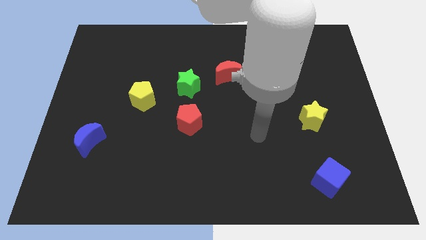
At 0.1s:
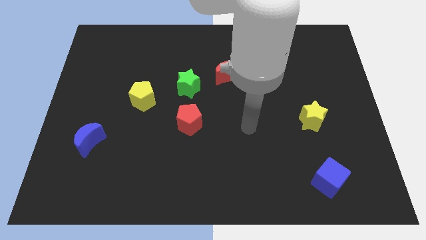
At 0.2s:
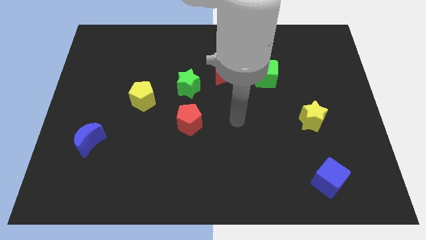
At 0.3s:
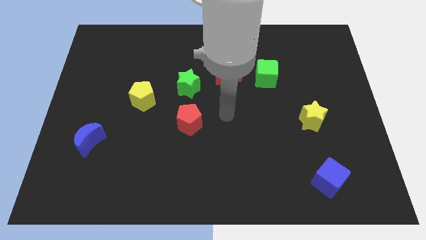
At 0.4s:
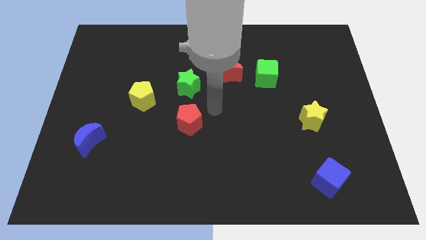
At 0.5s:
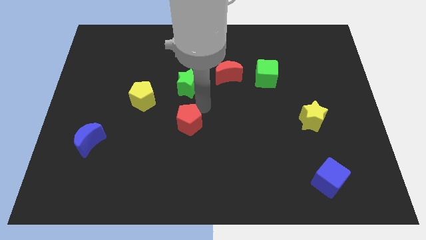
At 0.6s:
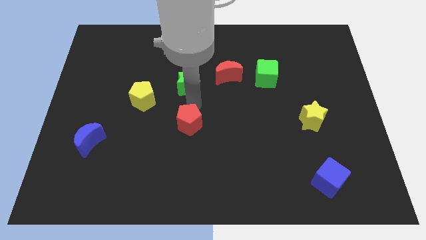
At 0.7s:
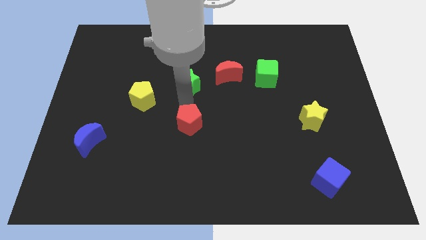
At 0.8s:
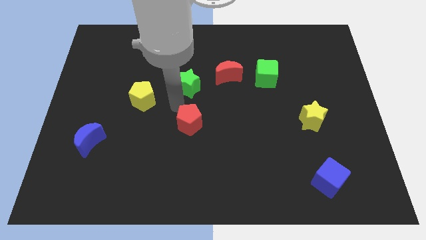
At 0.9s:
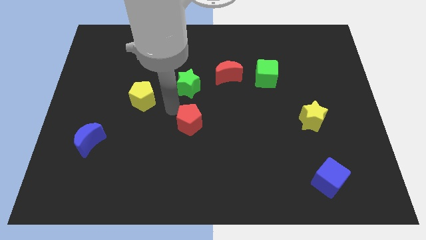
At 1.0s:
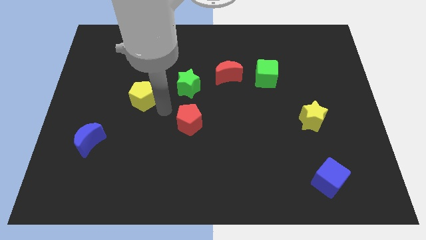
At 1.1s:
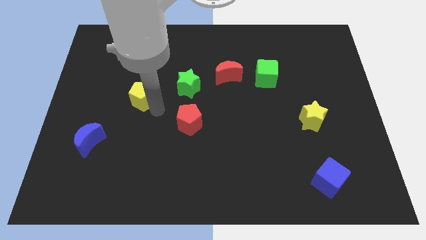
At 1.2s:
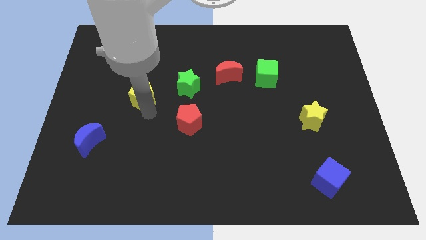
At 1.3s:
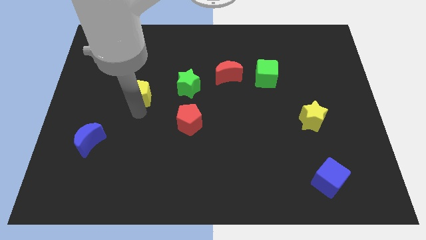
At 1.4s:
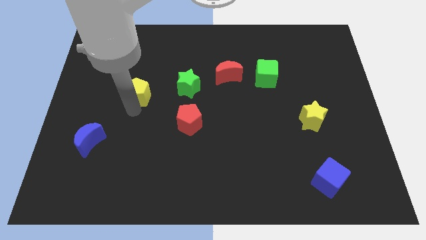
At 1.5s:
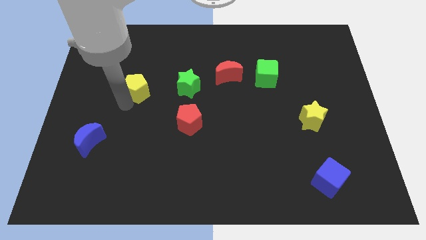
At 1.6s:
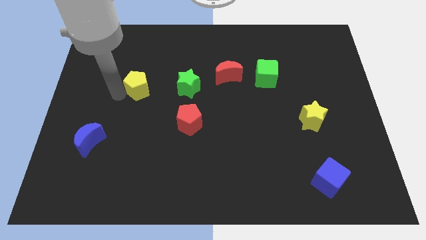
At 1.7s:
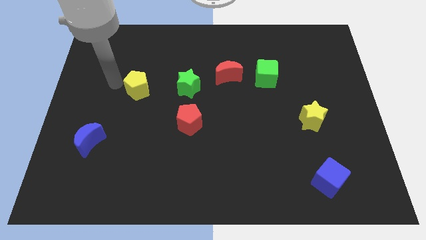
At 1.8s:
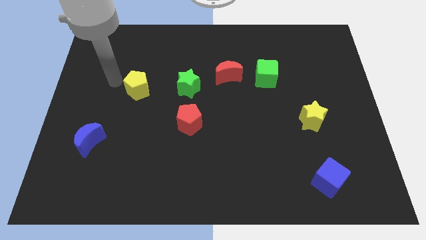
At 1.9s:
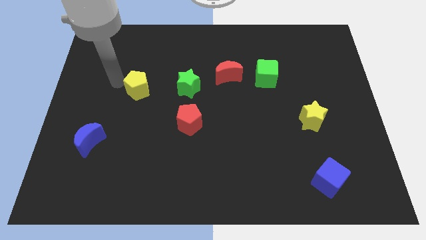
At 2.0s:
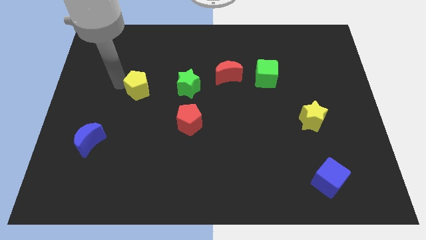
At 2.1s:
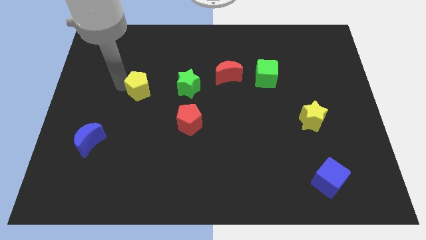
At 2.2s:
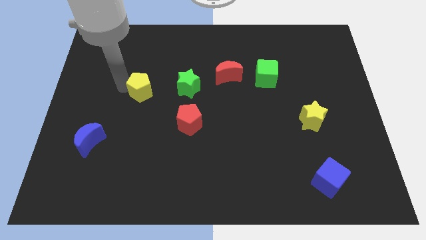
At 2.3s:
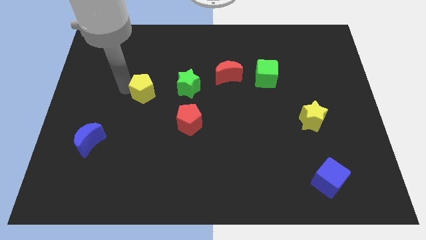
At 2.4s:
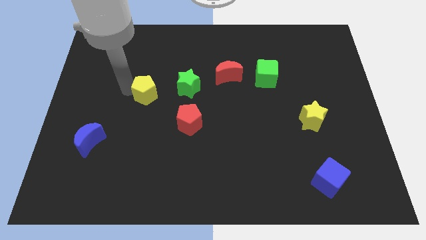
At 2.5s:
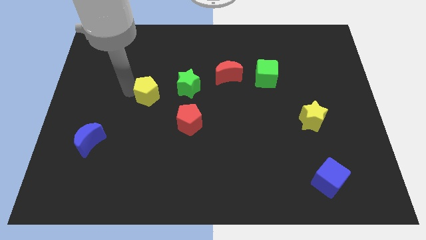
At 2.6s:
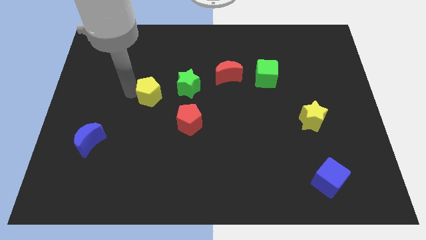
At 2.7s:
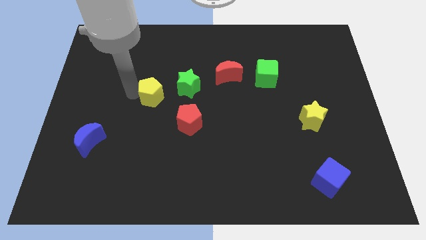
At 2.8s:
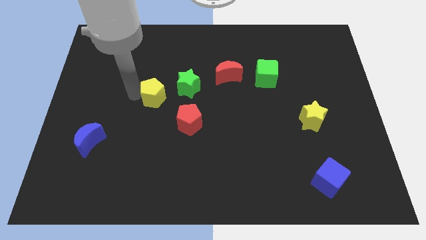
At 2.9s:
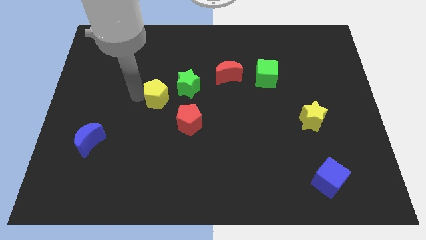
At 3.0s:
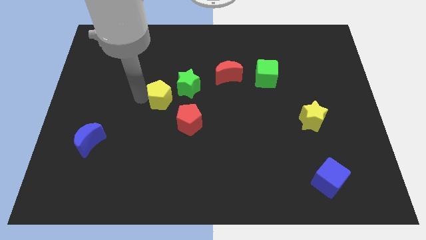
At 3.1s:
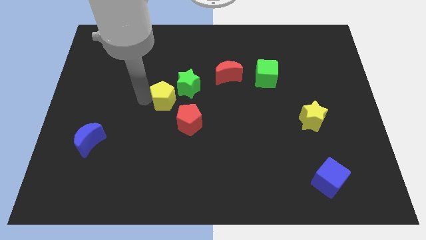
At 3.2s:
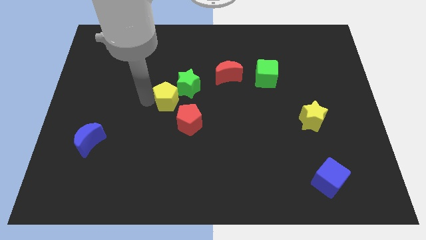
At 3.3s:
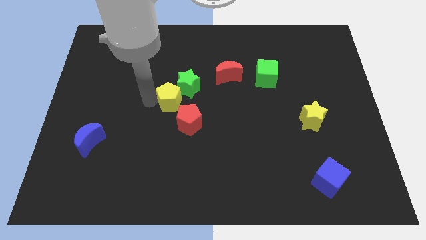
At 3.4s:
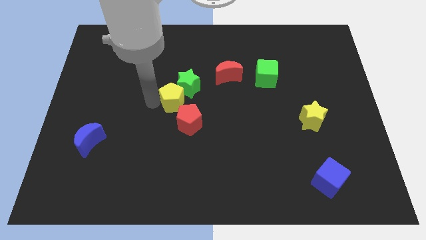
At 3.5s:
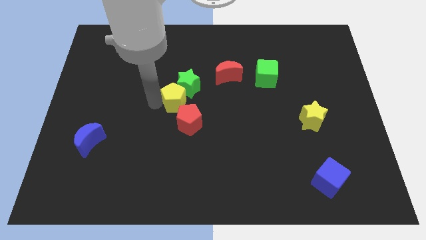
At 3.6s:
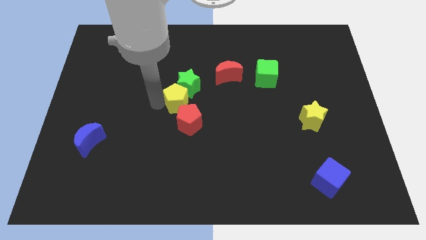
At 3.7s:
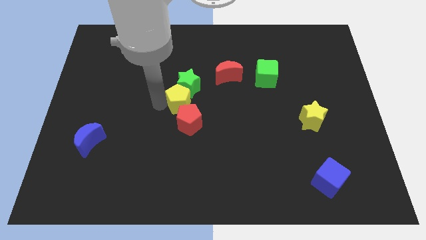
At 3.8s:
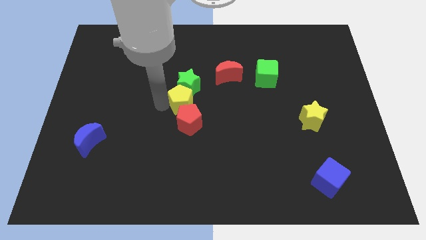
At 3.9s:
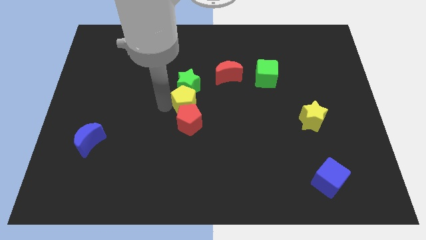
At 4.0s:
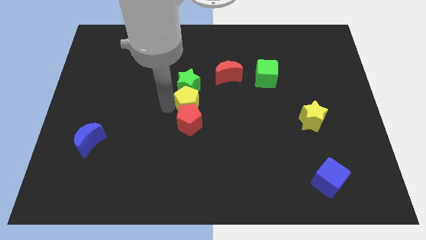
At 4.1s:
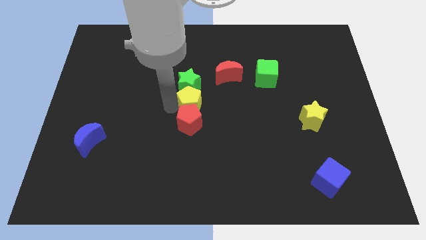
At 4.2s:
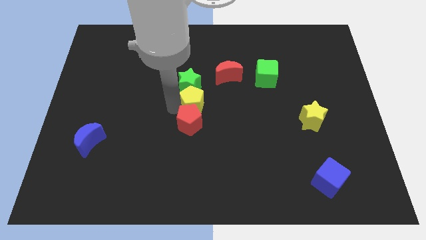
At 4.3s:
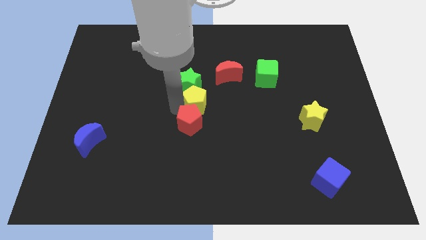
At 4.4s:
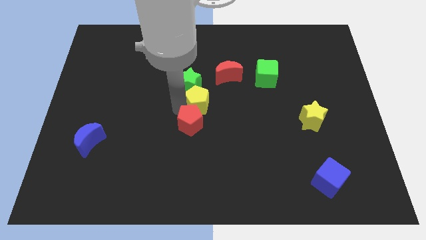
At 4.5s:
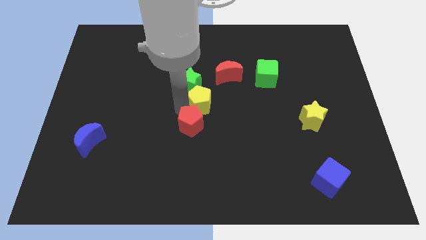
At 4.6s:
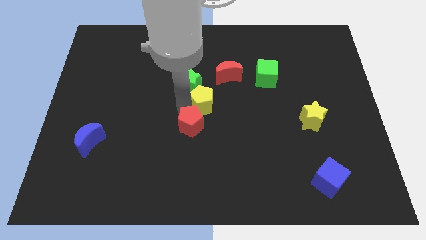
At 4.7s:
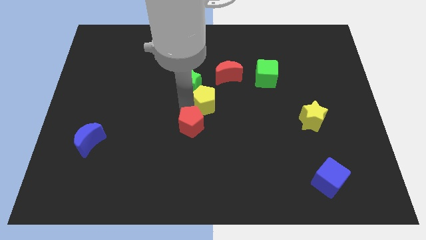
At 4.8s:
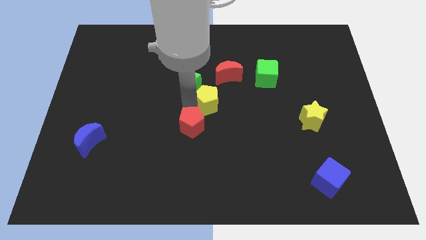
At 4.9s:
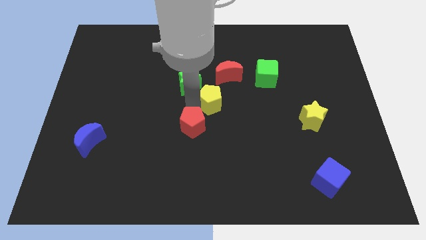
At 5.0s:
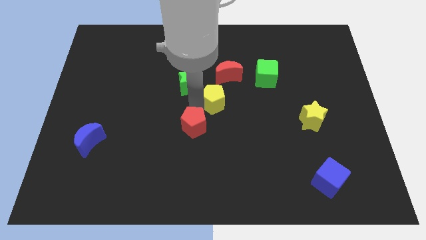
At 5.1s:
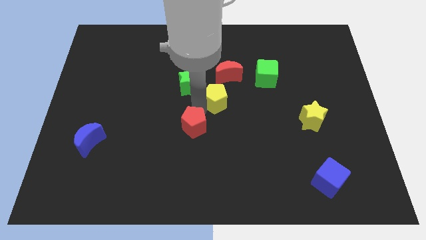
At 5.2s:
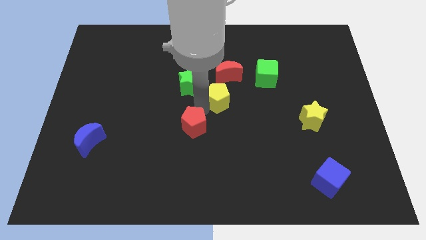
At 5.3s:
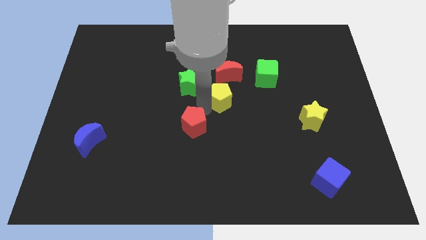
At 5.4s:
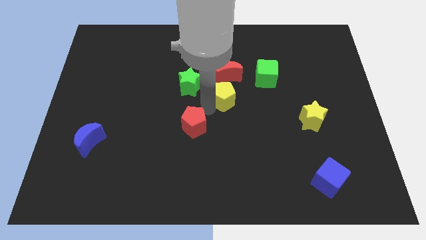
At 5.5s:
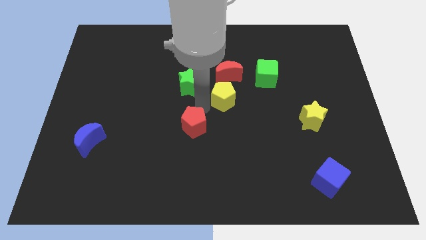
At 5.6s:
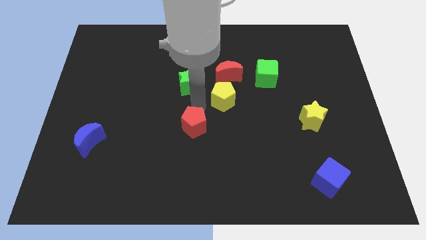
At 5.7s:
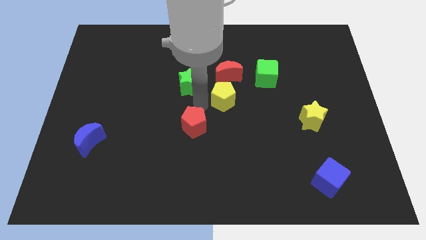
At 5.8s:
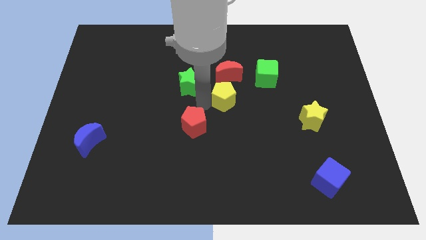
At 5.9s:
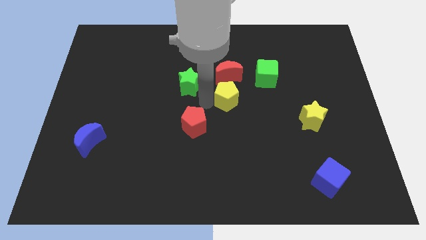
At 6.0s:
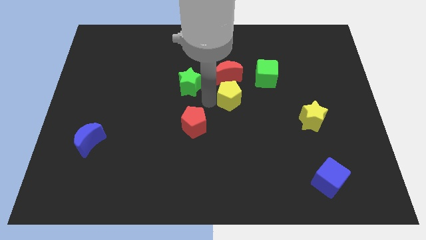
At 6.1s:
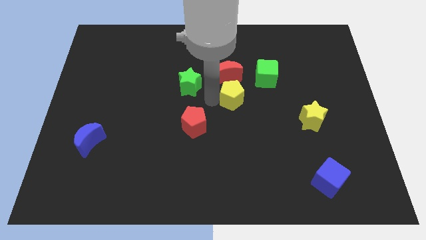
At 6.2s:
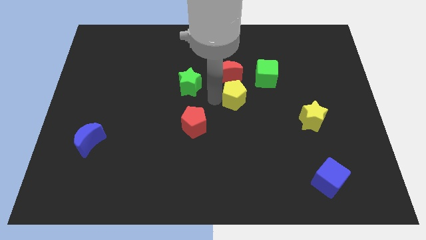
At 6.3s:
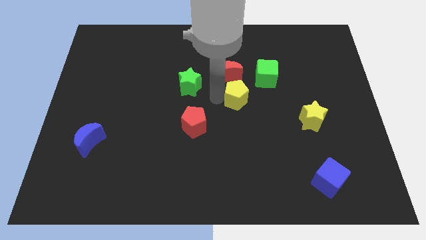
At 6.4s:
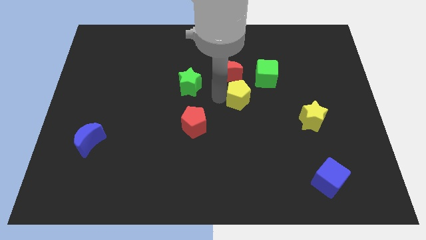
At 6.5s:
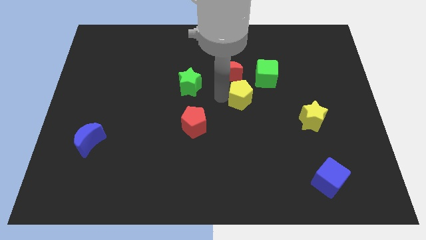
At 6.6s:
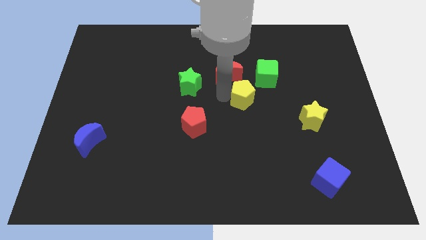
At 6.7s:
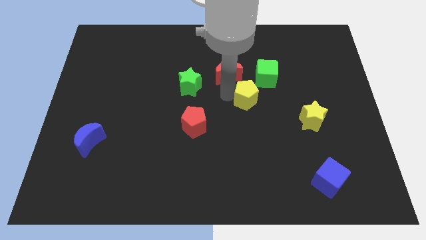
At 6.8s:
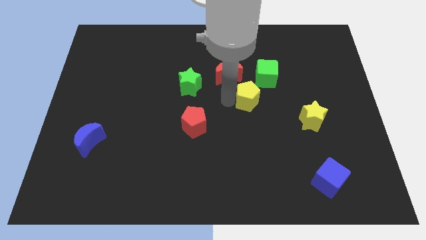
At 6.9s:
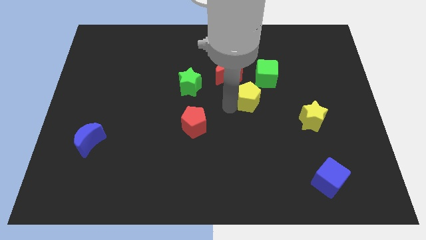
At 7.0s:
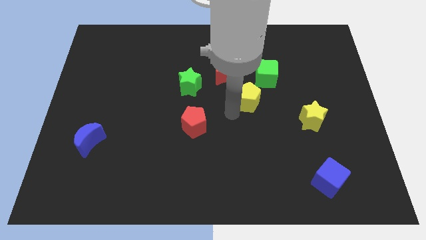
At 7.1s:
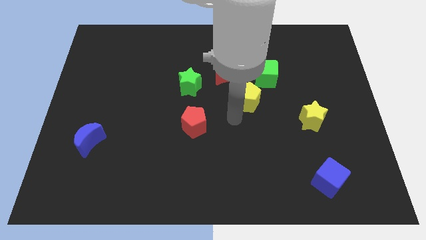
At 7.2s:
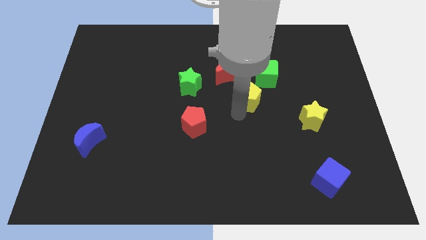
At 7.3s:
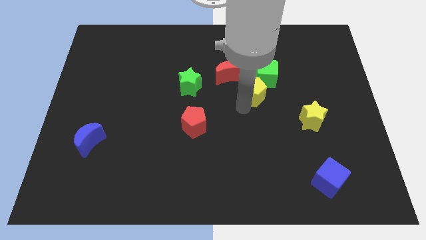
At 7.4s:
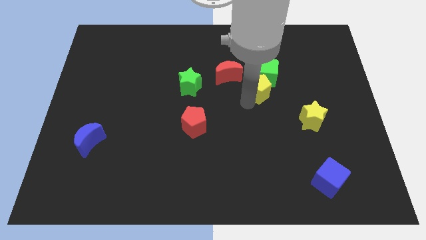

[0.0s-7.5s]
push the yellow pentagon to the green cube
